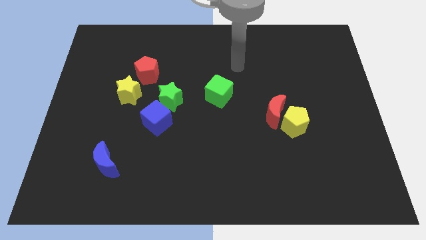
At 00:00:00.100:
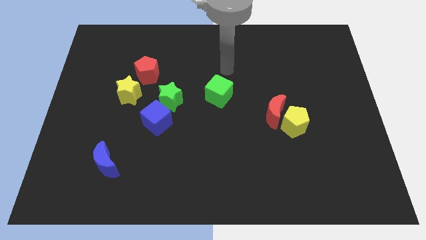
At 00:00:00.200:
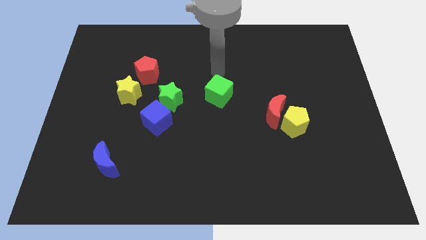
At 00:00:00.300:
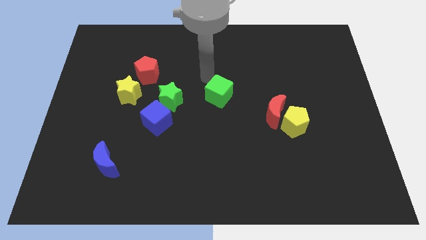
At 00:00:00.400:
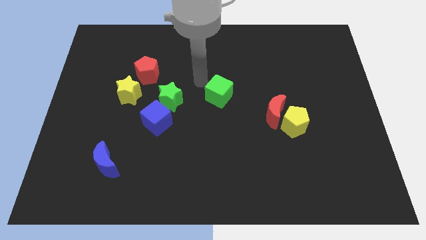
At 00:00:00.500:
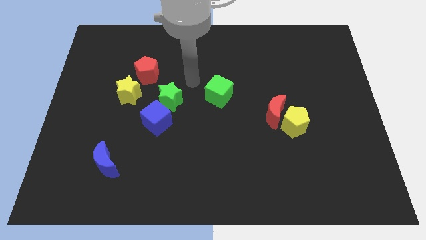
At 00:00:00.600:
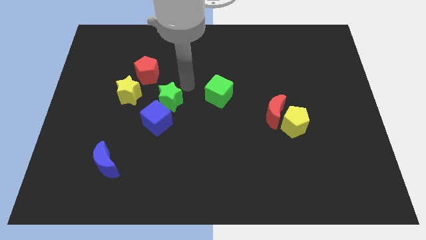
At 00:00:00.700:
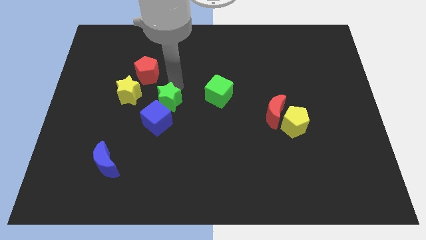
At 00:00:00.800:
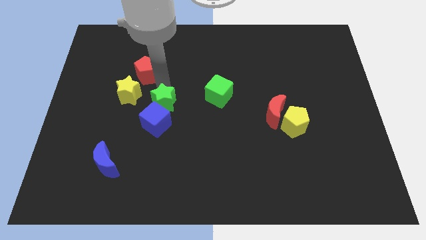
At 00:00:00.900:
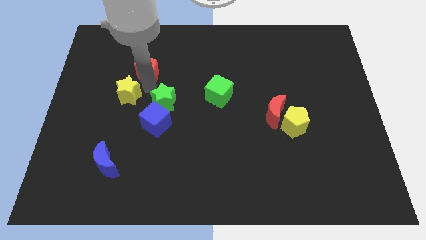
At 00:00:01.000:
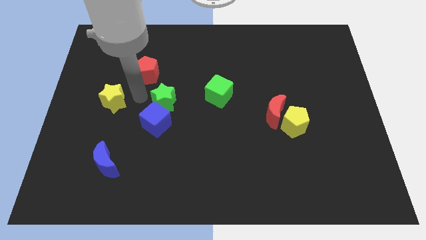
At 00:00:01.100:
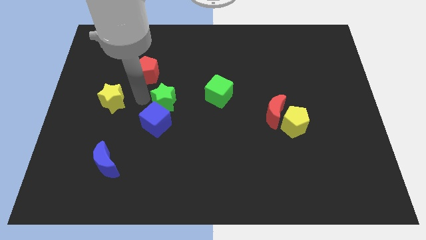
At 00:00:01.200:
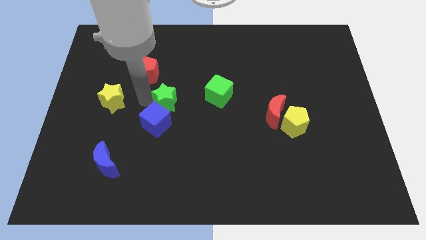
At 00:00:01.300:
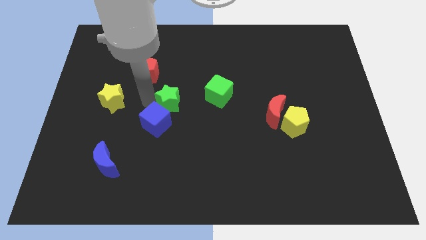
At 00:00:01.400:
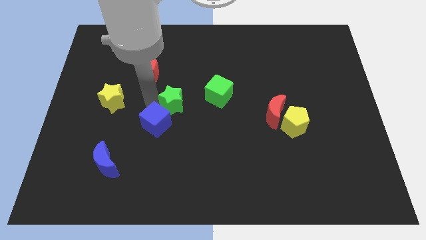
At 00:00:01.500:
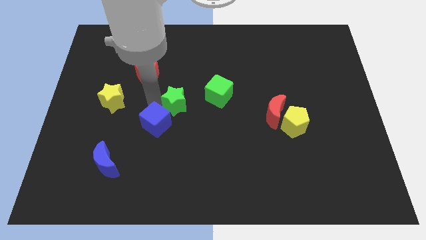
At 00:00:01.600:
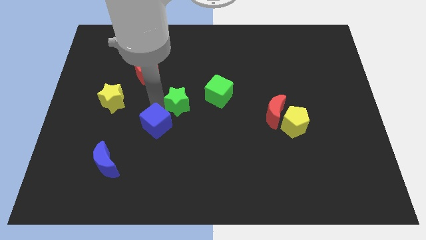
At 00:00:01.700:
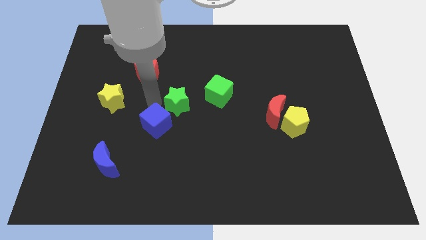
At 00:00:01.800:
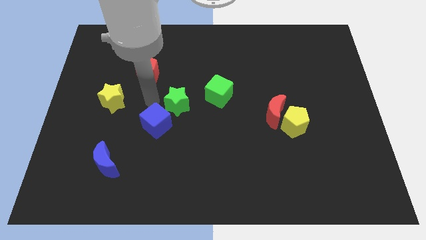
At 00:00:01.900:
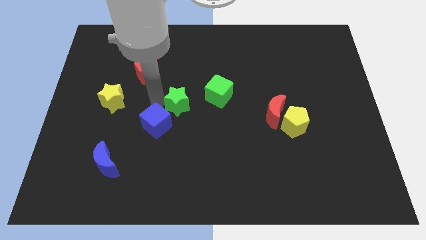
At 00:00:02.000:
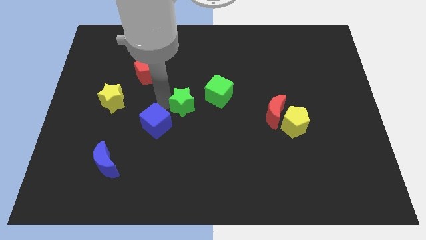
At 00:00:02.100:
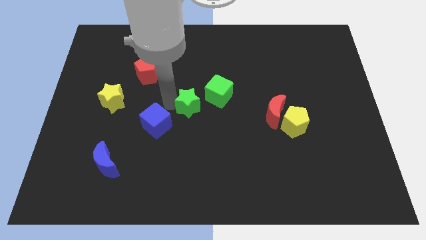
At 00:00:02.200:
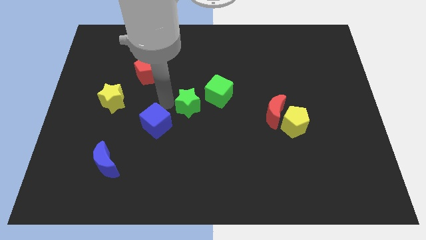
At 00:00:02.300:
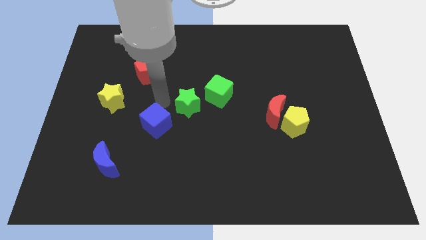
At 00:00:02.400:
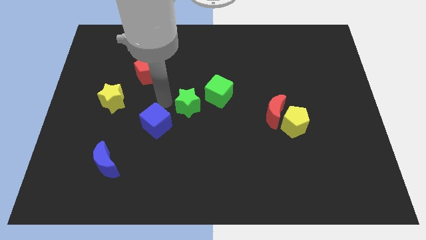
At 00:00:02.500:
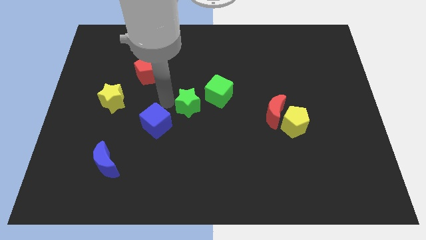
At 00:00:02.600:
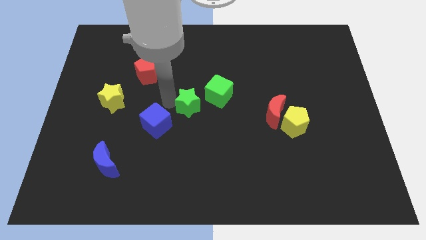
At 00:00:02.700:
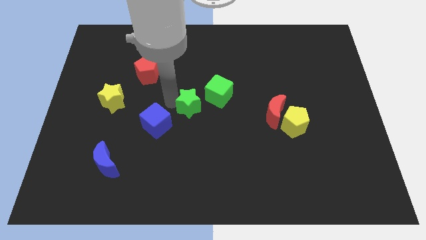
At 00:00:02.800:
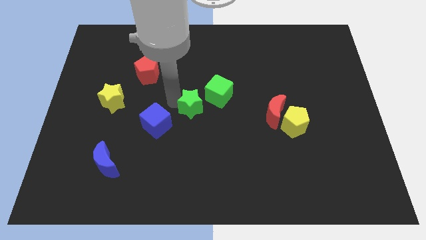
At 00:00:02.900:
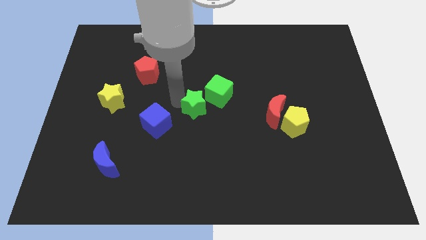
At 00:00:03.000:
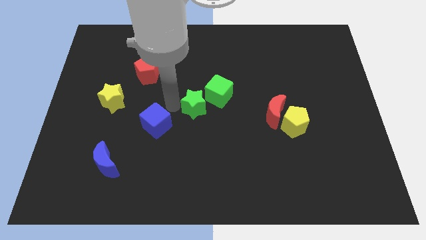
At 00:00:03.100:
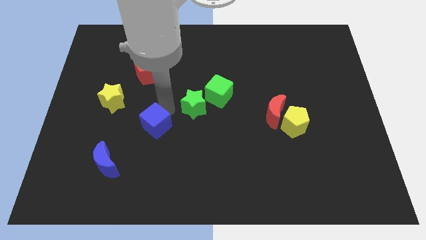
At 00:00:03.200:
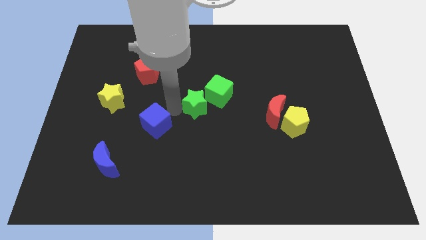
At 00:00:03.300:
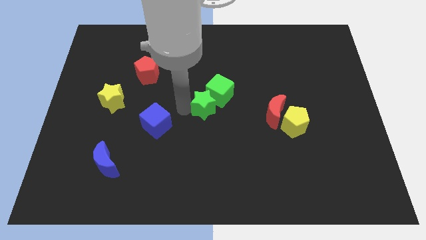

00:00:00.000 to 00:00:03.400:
slightly move the green star to the right

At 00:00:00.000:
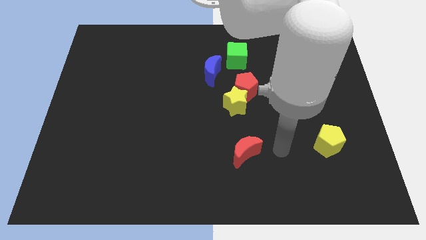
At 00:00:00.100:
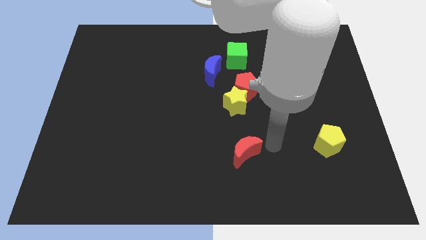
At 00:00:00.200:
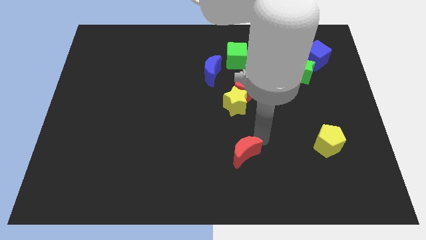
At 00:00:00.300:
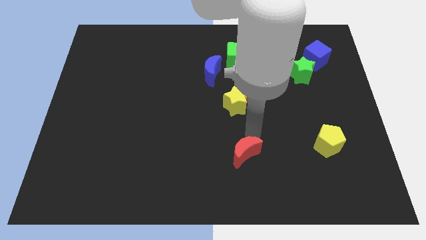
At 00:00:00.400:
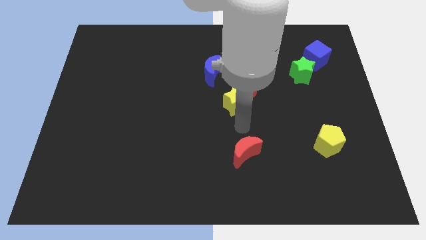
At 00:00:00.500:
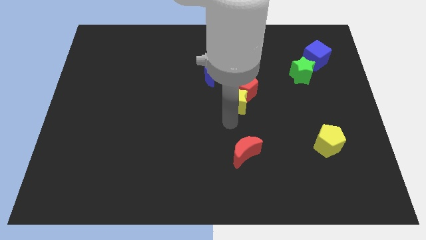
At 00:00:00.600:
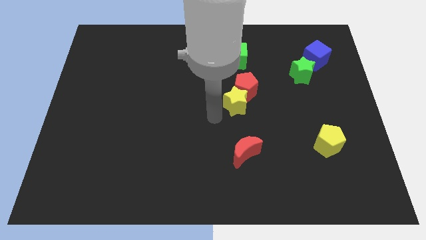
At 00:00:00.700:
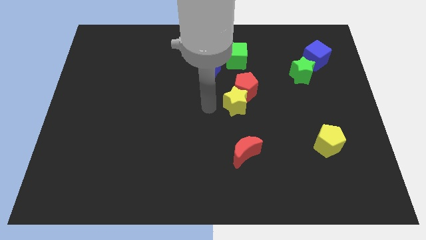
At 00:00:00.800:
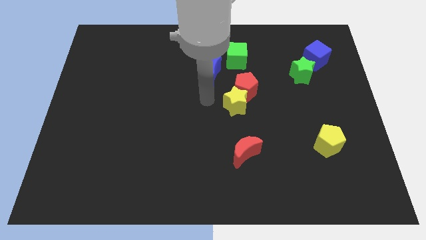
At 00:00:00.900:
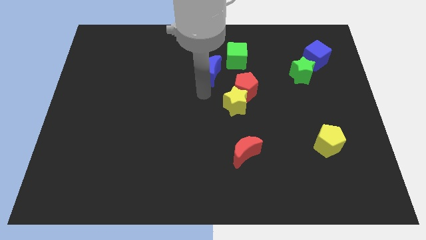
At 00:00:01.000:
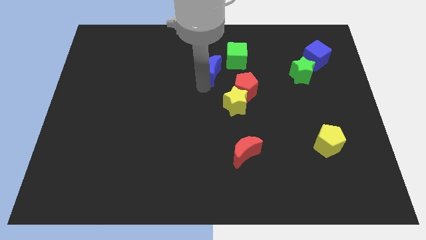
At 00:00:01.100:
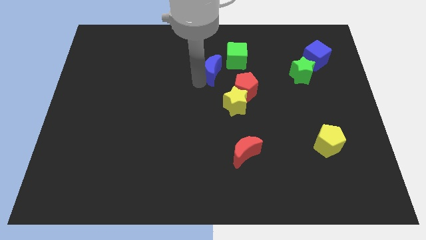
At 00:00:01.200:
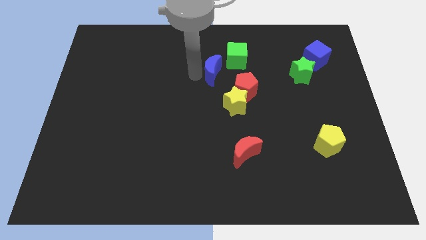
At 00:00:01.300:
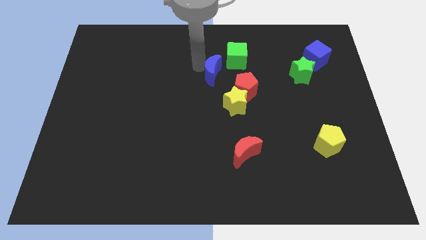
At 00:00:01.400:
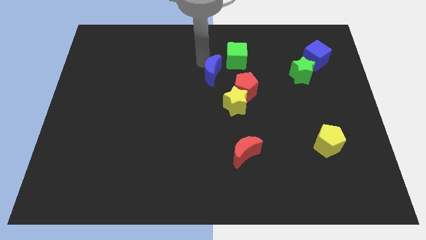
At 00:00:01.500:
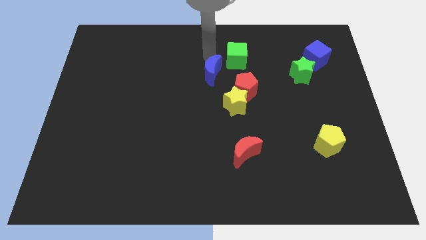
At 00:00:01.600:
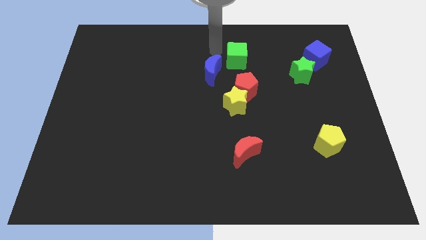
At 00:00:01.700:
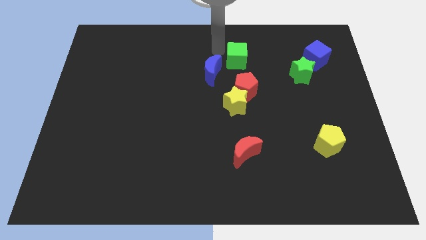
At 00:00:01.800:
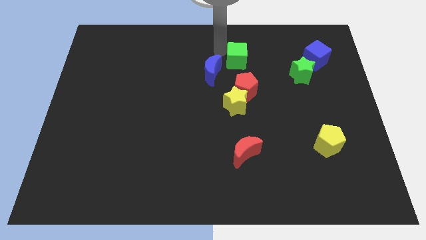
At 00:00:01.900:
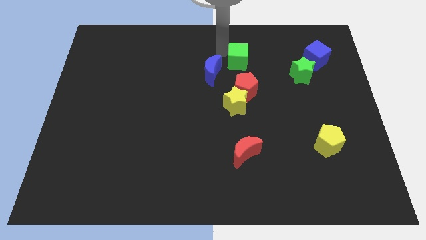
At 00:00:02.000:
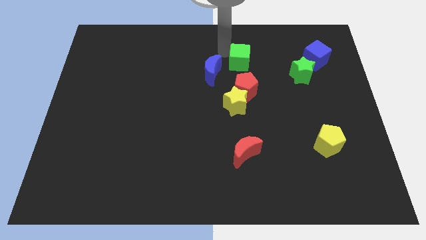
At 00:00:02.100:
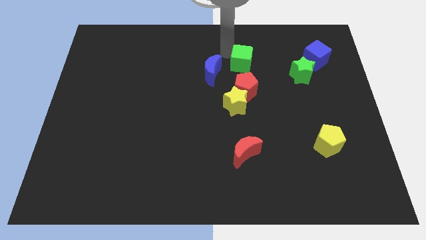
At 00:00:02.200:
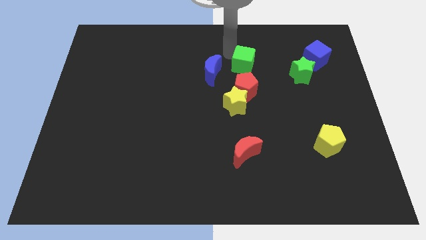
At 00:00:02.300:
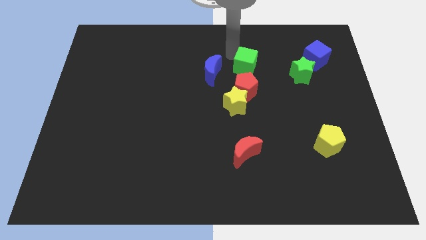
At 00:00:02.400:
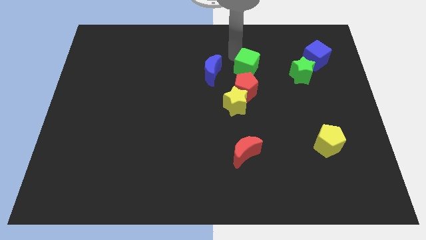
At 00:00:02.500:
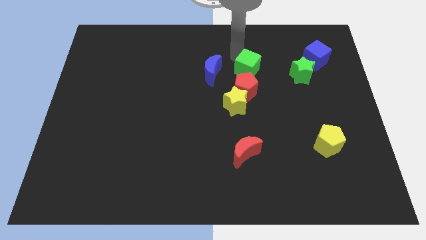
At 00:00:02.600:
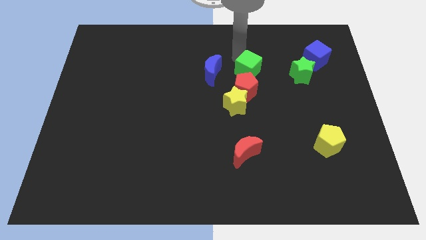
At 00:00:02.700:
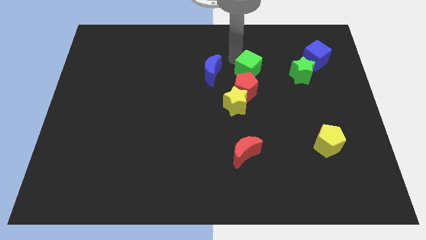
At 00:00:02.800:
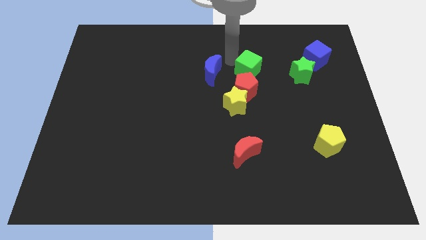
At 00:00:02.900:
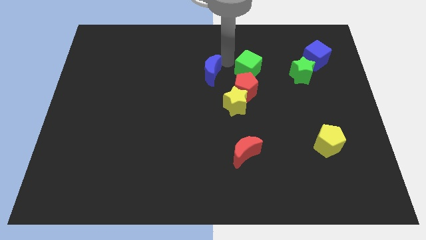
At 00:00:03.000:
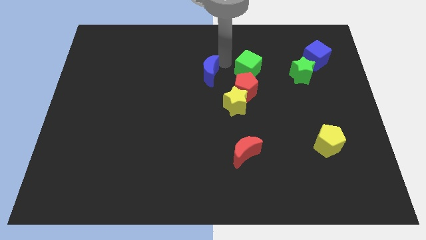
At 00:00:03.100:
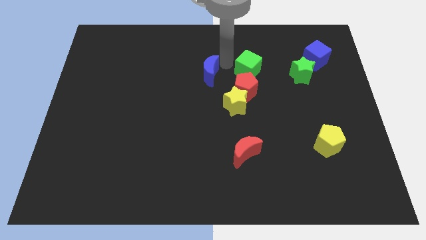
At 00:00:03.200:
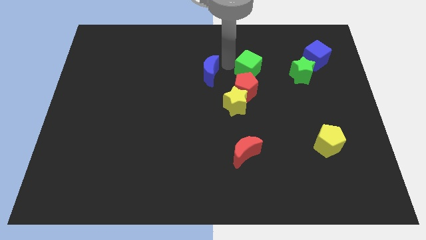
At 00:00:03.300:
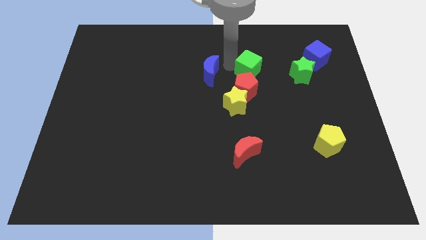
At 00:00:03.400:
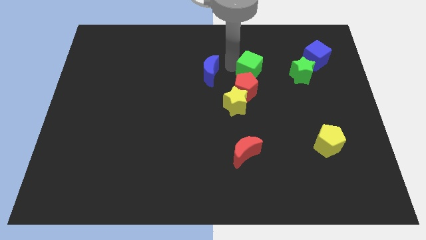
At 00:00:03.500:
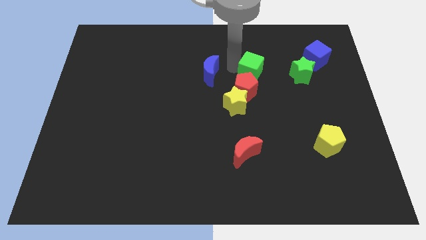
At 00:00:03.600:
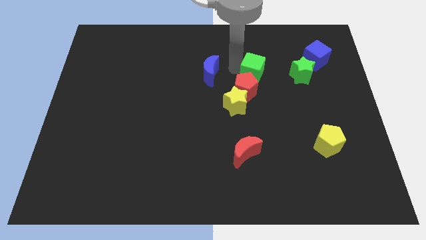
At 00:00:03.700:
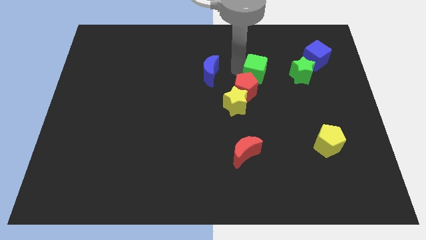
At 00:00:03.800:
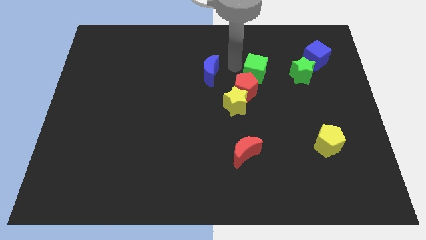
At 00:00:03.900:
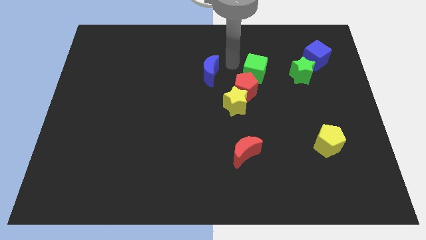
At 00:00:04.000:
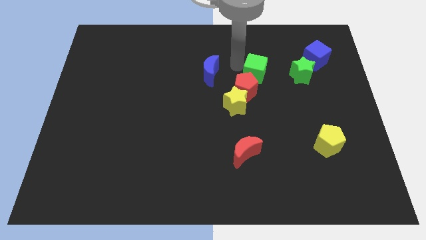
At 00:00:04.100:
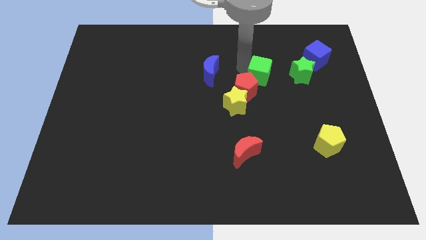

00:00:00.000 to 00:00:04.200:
slightly slide the green cube down and right

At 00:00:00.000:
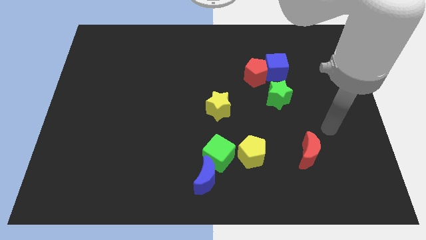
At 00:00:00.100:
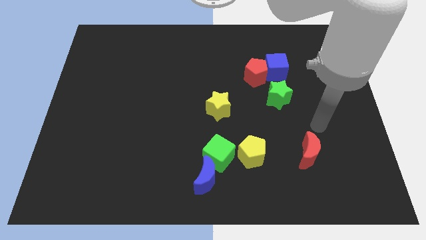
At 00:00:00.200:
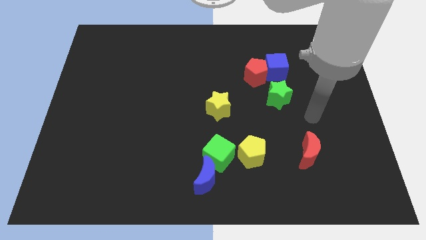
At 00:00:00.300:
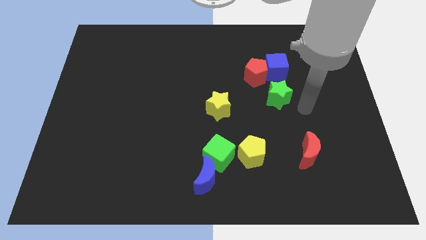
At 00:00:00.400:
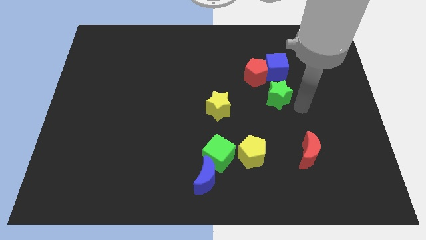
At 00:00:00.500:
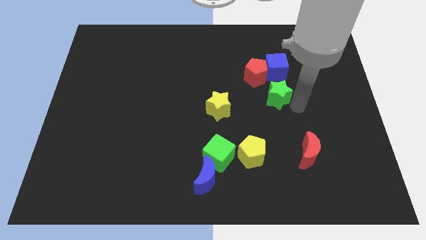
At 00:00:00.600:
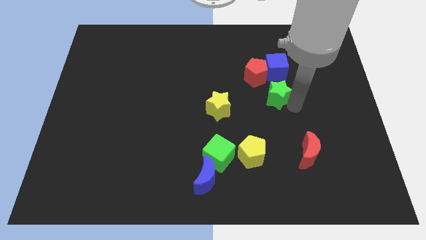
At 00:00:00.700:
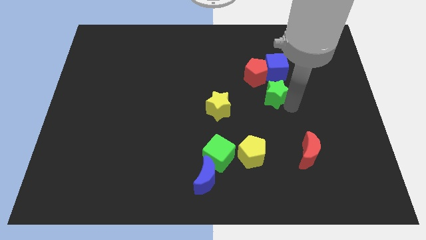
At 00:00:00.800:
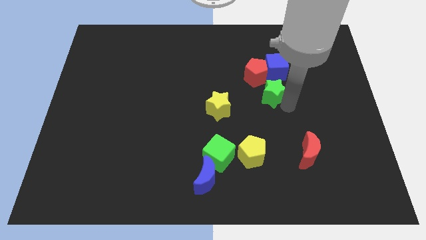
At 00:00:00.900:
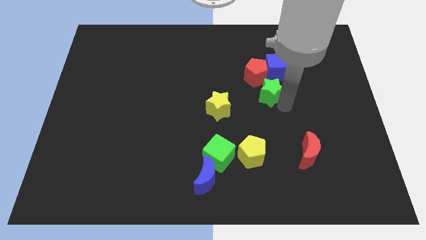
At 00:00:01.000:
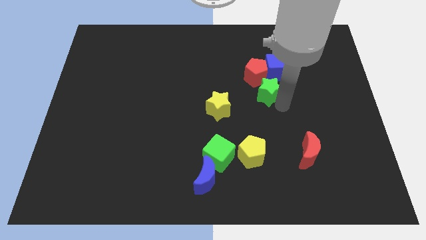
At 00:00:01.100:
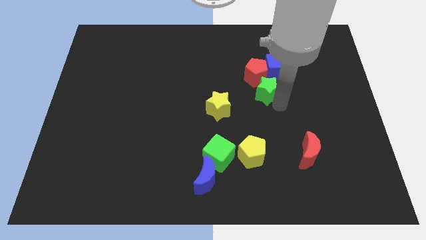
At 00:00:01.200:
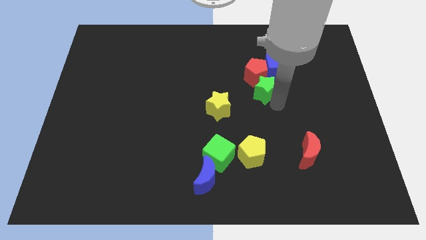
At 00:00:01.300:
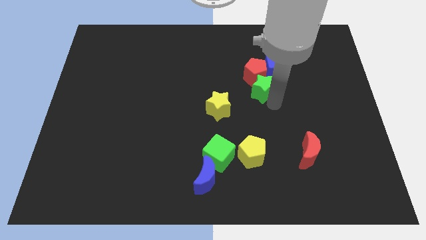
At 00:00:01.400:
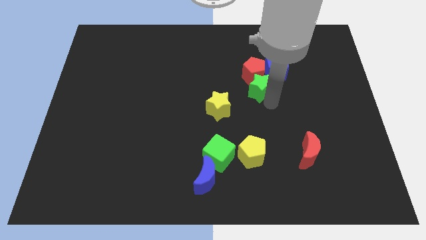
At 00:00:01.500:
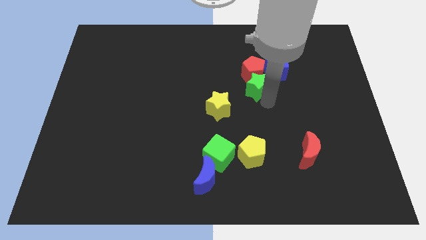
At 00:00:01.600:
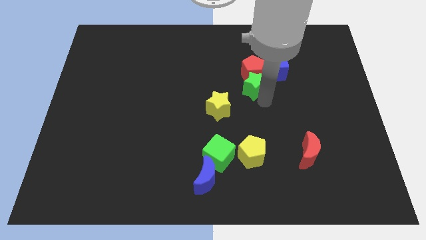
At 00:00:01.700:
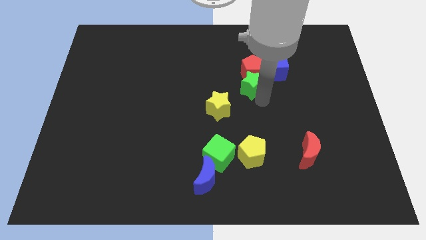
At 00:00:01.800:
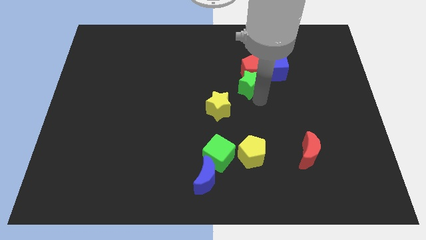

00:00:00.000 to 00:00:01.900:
slightly move the green star up and then left
